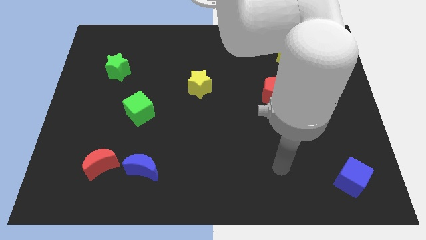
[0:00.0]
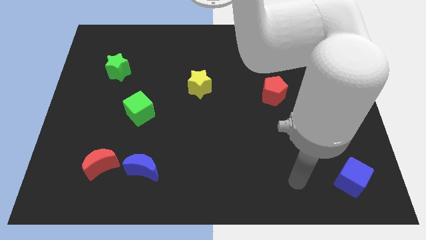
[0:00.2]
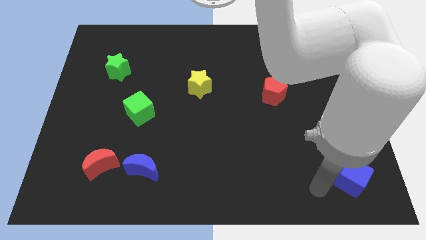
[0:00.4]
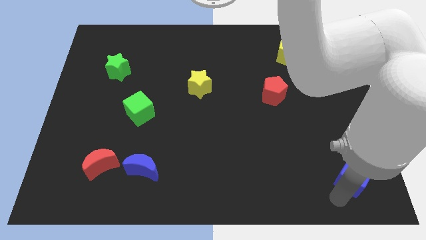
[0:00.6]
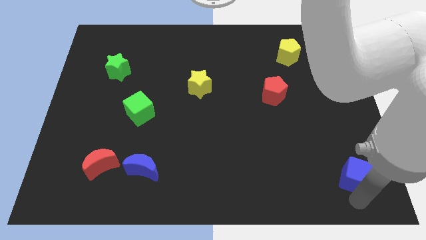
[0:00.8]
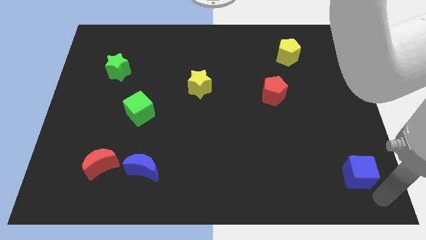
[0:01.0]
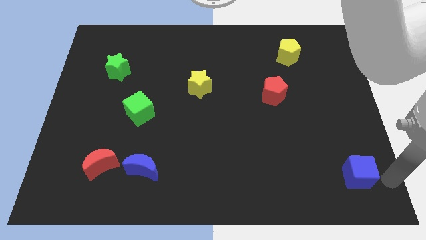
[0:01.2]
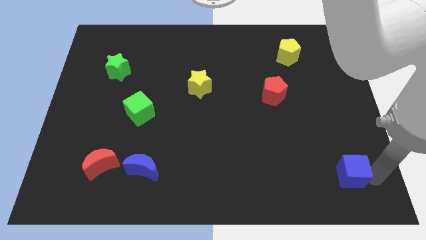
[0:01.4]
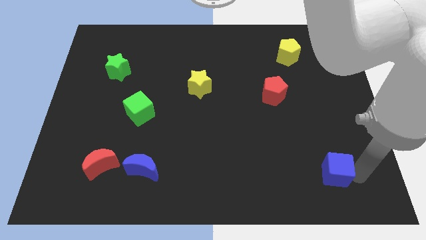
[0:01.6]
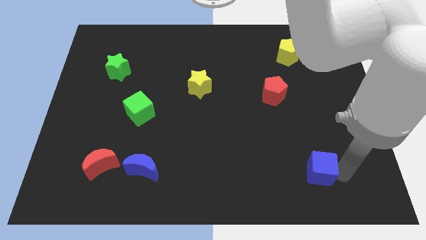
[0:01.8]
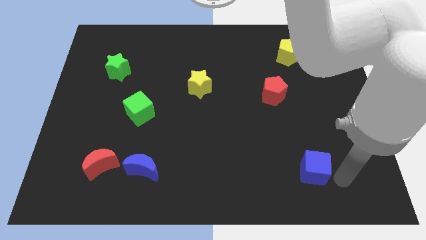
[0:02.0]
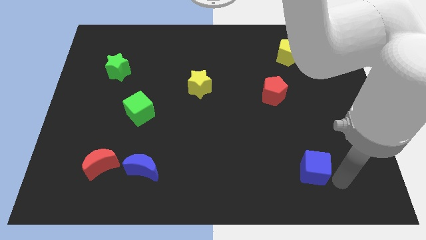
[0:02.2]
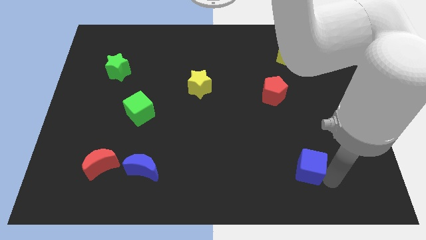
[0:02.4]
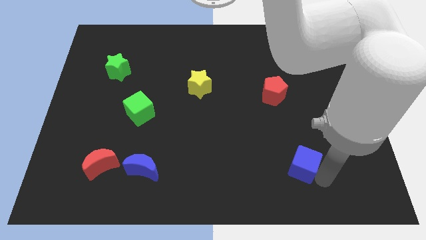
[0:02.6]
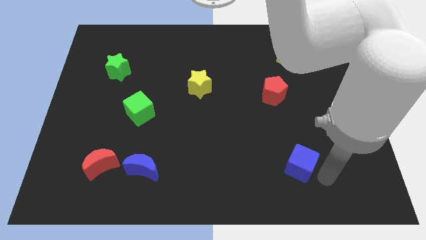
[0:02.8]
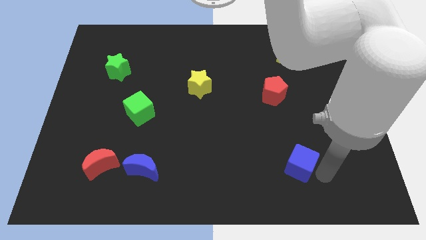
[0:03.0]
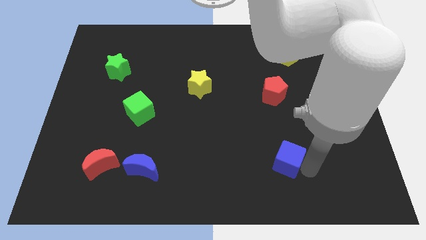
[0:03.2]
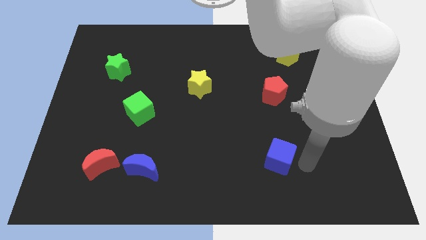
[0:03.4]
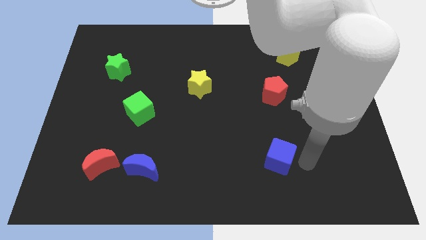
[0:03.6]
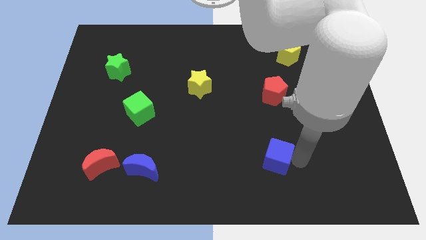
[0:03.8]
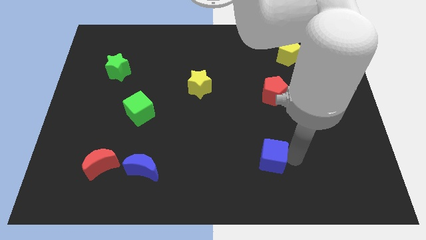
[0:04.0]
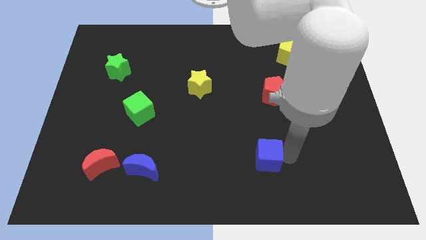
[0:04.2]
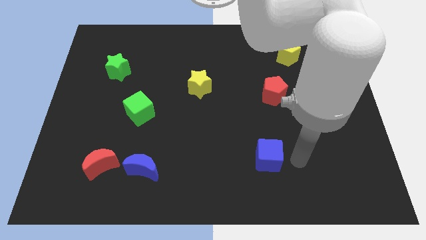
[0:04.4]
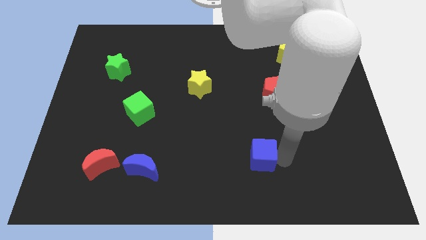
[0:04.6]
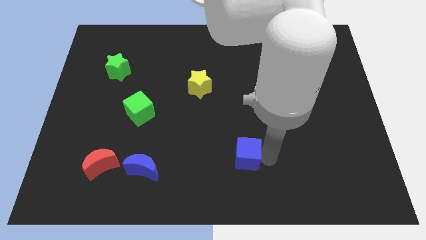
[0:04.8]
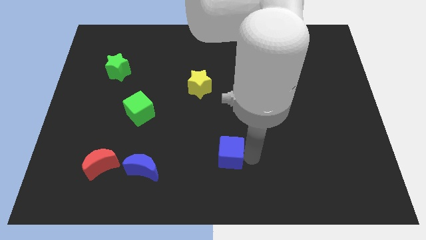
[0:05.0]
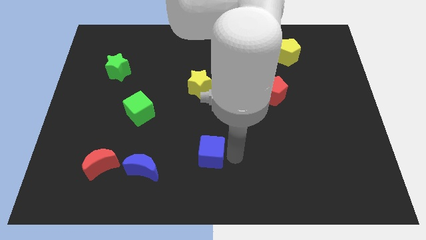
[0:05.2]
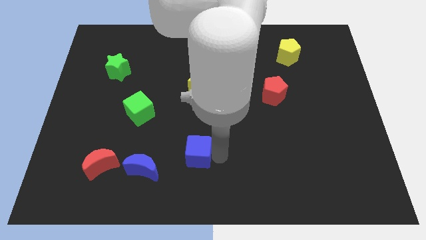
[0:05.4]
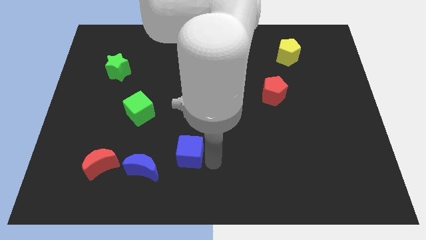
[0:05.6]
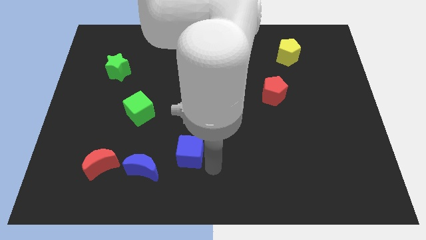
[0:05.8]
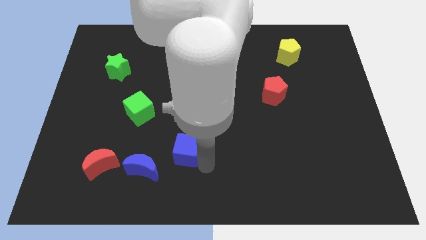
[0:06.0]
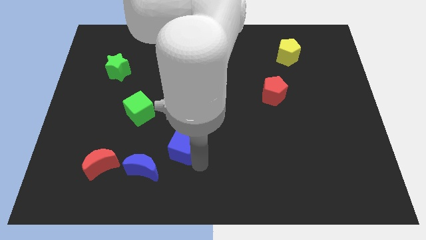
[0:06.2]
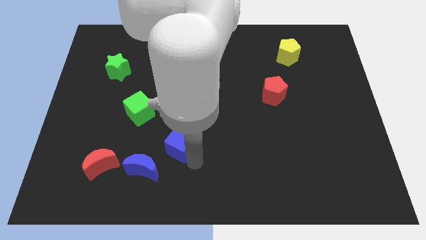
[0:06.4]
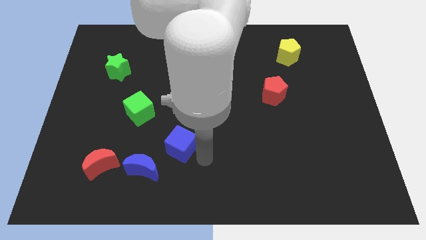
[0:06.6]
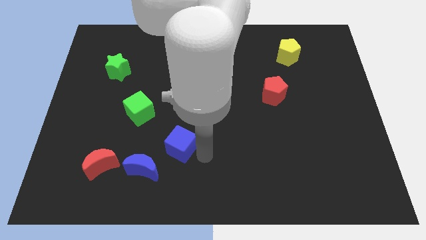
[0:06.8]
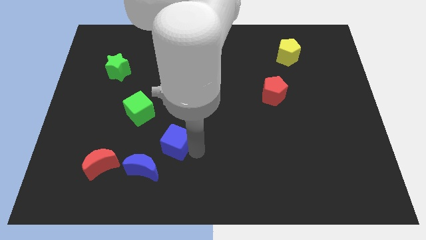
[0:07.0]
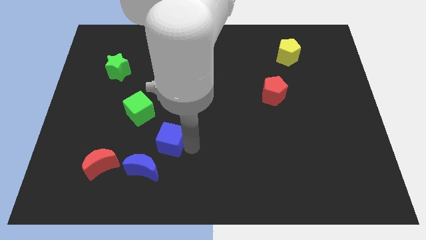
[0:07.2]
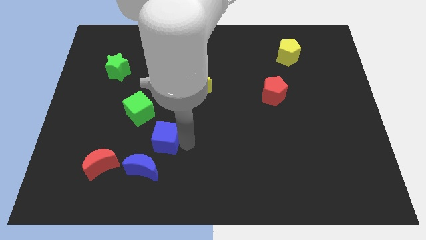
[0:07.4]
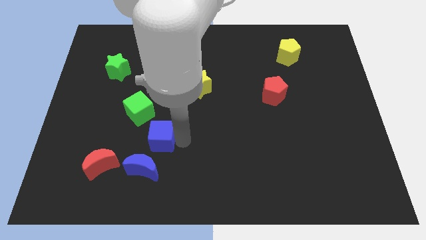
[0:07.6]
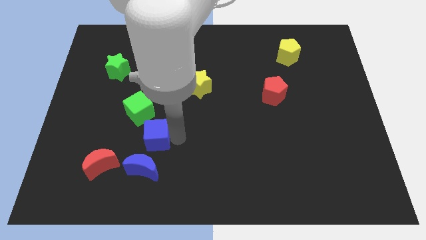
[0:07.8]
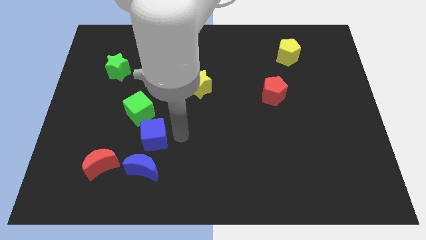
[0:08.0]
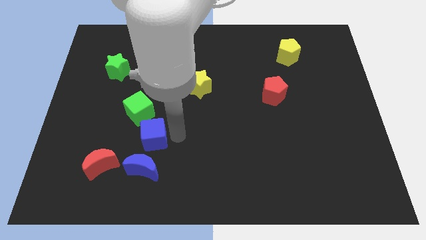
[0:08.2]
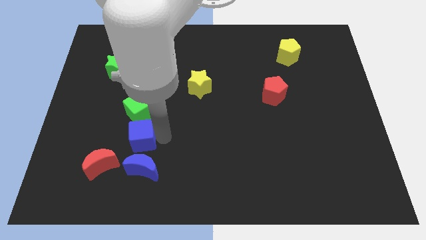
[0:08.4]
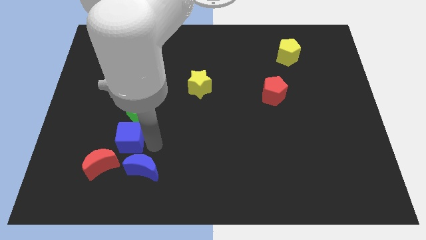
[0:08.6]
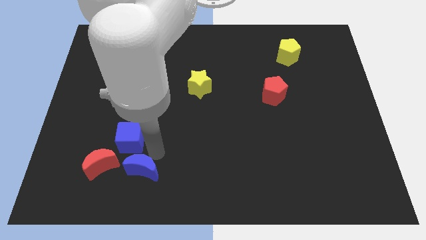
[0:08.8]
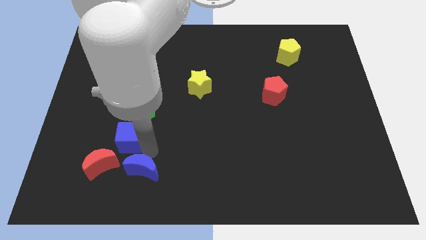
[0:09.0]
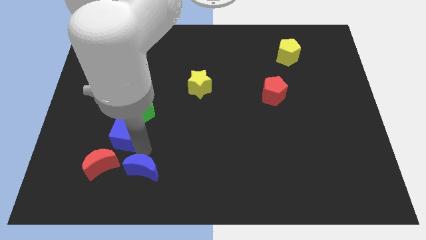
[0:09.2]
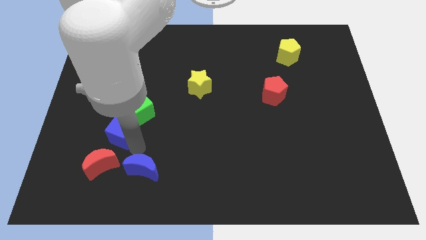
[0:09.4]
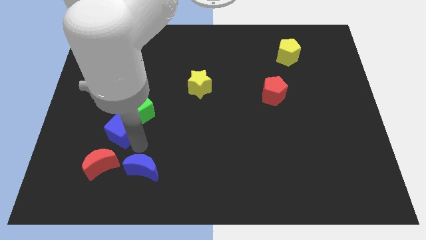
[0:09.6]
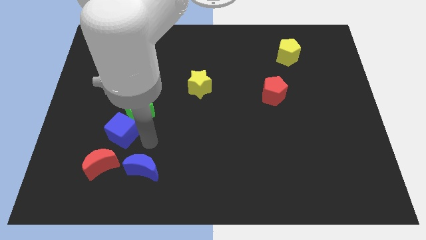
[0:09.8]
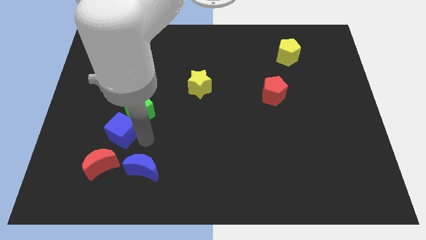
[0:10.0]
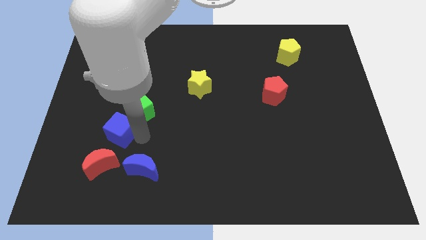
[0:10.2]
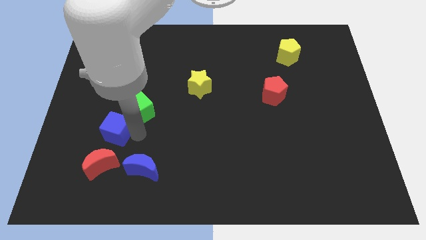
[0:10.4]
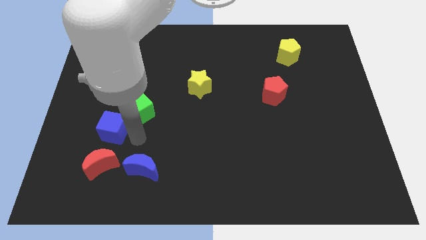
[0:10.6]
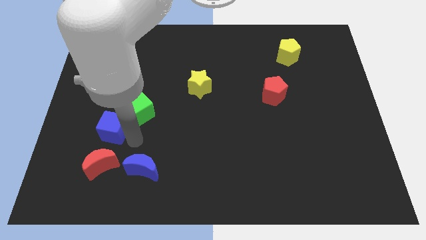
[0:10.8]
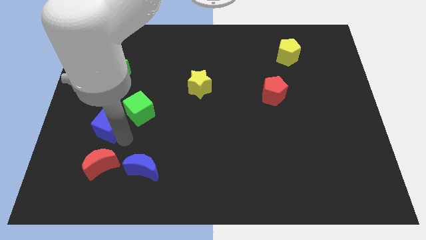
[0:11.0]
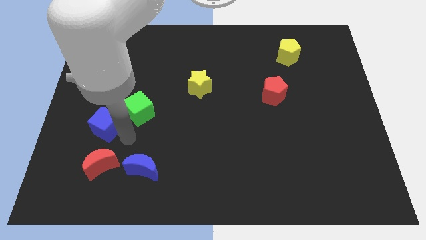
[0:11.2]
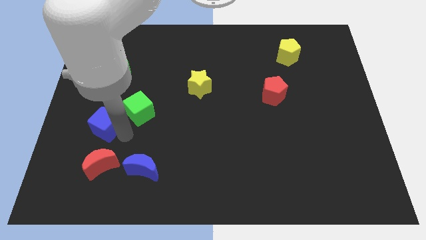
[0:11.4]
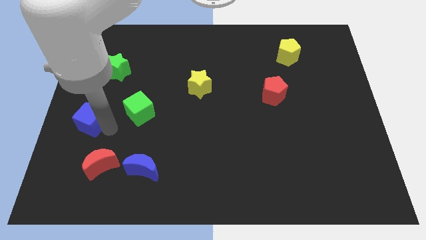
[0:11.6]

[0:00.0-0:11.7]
put the blue cube to the left side of the board

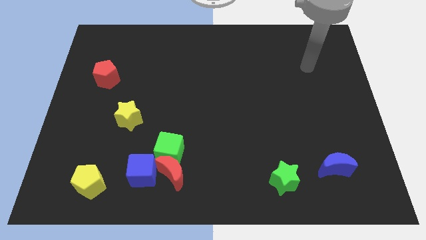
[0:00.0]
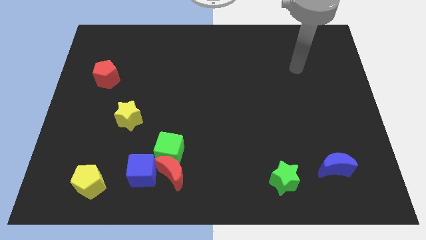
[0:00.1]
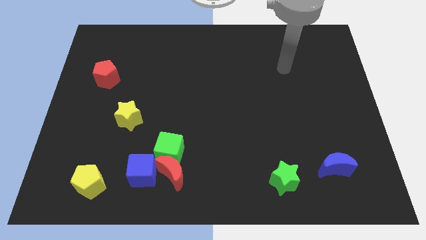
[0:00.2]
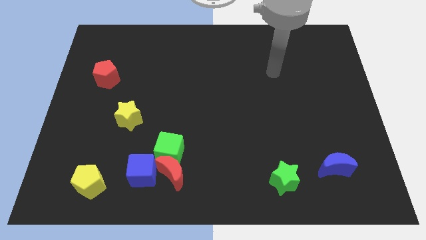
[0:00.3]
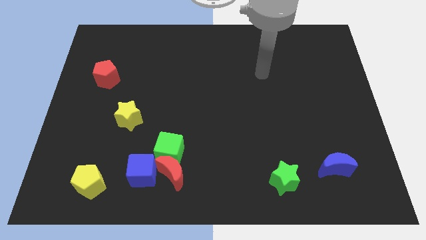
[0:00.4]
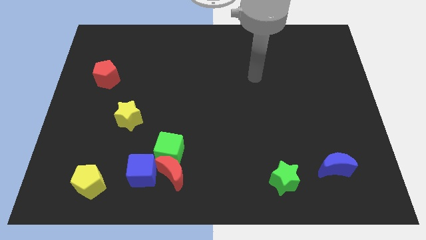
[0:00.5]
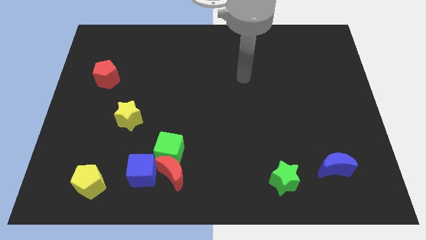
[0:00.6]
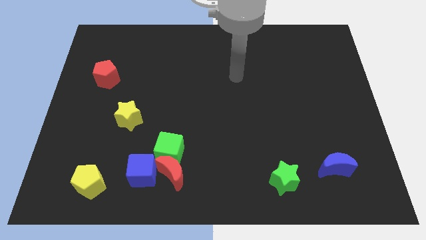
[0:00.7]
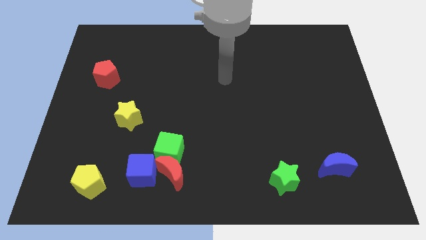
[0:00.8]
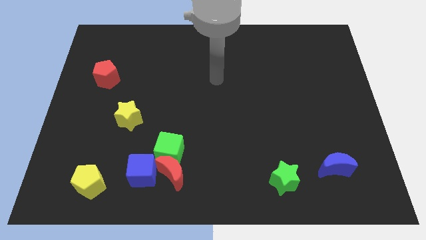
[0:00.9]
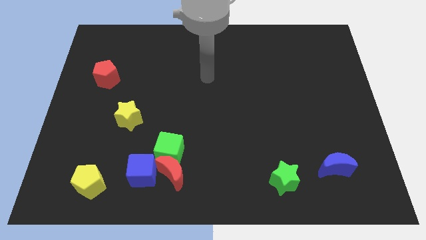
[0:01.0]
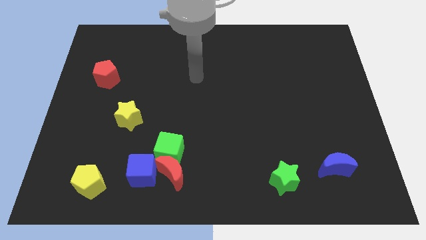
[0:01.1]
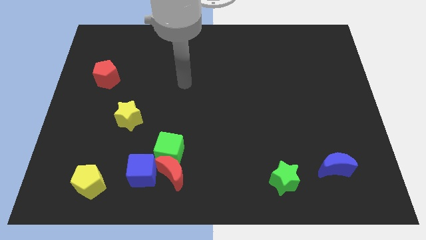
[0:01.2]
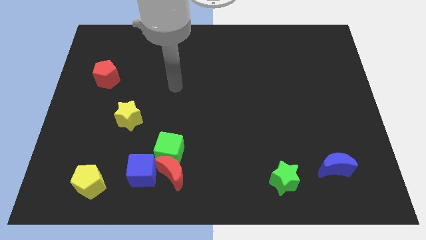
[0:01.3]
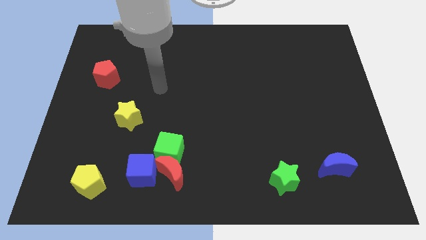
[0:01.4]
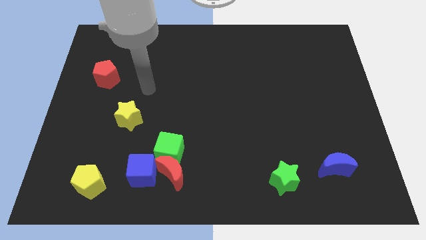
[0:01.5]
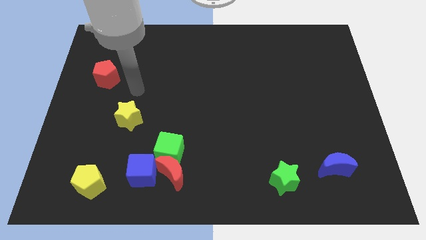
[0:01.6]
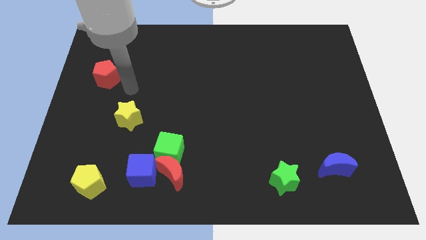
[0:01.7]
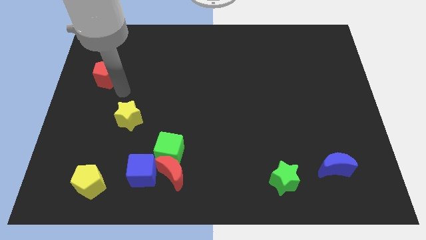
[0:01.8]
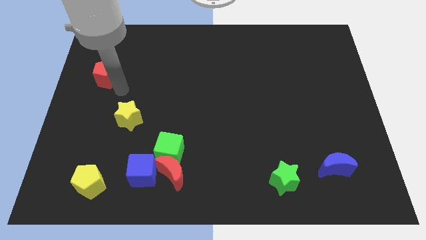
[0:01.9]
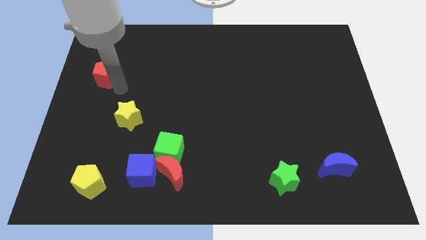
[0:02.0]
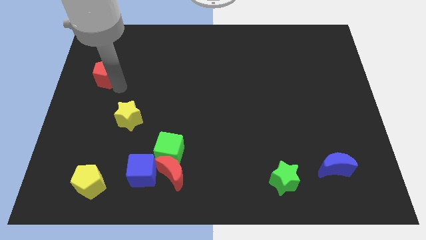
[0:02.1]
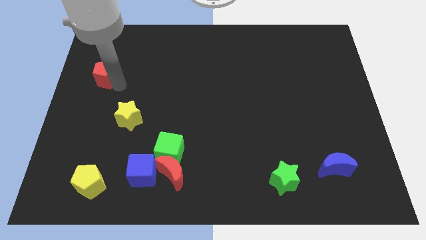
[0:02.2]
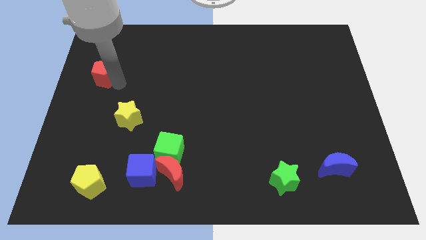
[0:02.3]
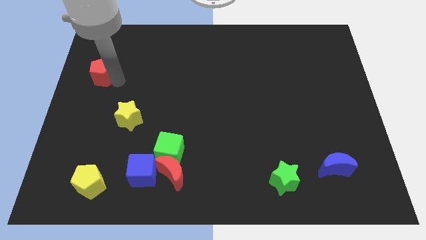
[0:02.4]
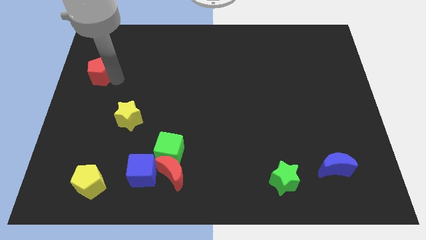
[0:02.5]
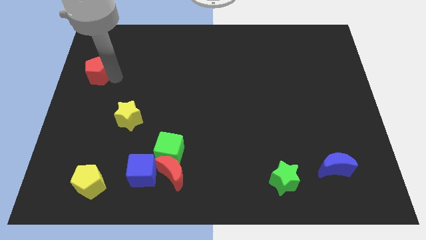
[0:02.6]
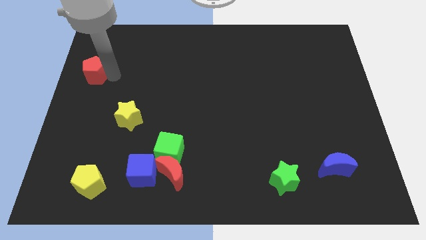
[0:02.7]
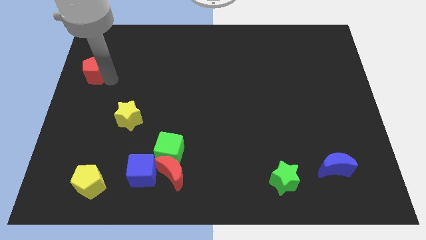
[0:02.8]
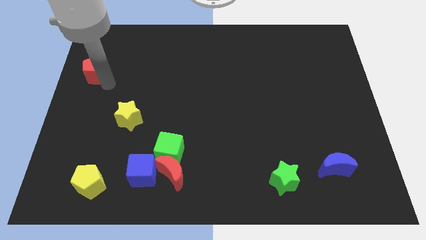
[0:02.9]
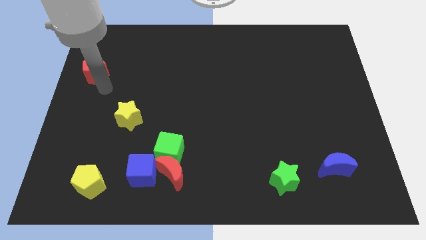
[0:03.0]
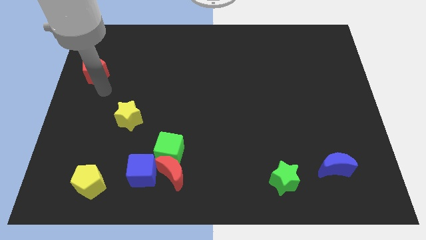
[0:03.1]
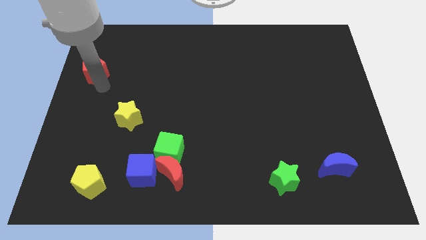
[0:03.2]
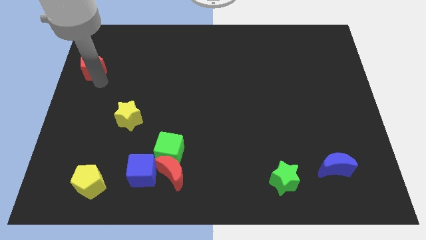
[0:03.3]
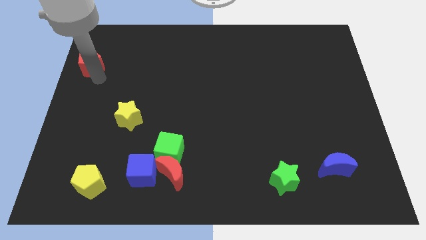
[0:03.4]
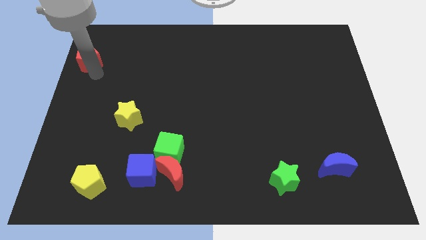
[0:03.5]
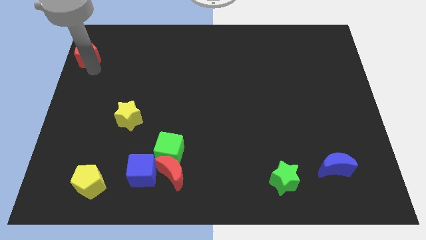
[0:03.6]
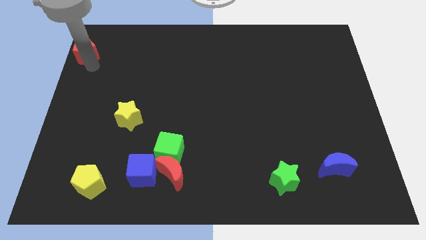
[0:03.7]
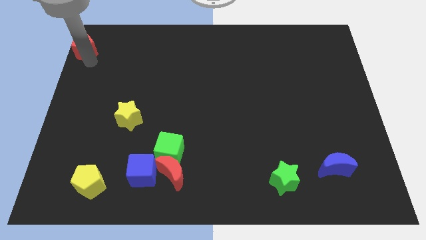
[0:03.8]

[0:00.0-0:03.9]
slide the red pentagon to the upper left corner
